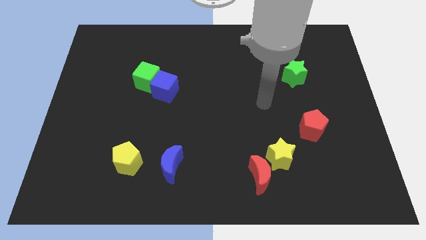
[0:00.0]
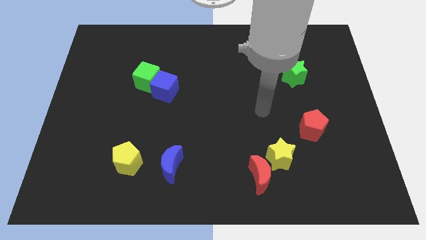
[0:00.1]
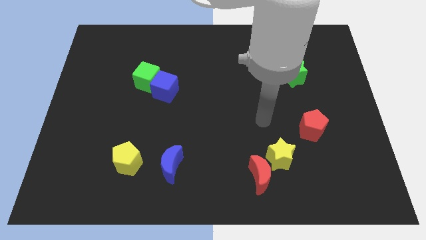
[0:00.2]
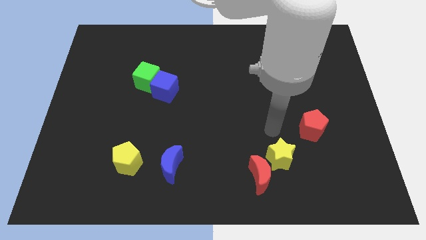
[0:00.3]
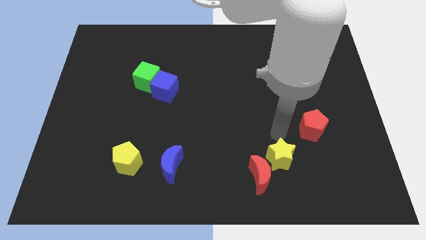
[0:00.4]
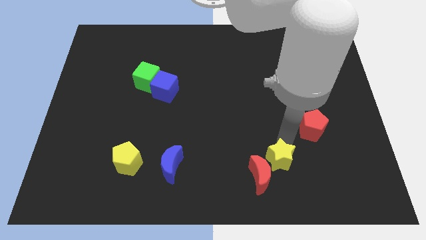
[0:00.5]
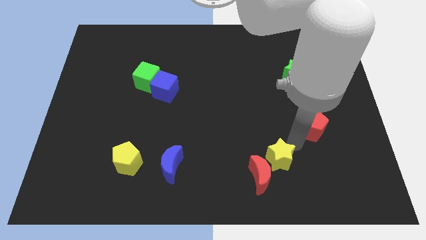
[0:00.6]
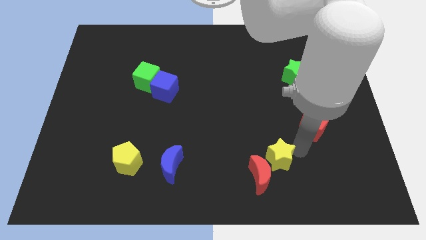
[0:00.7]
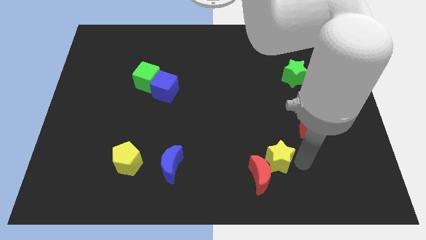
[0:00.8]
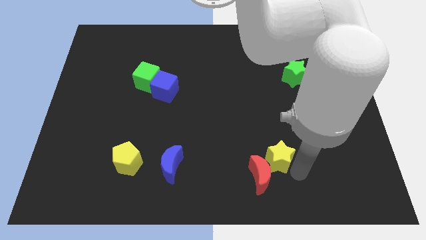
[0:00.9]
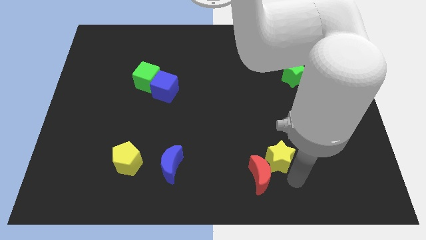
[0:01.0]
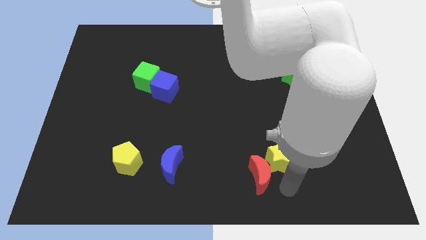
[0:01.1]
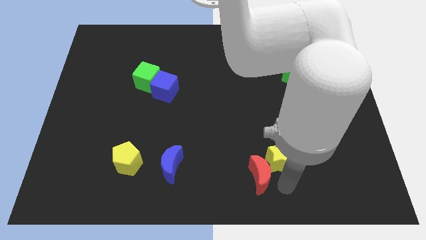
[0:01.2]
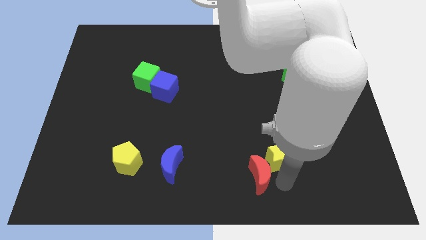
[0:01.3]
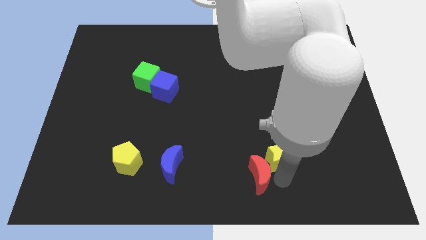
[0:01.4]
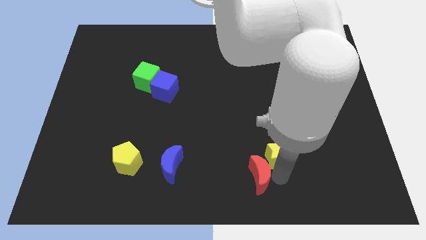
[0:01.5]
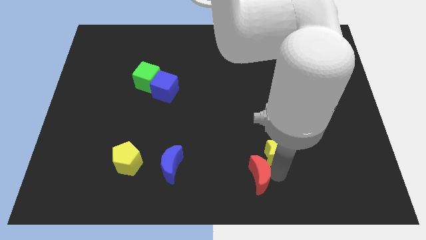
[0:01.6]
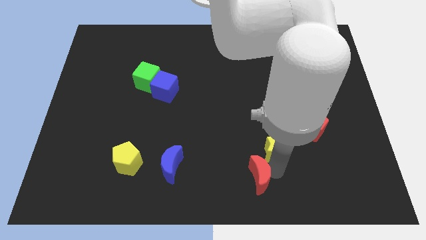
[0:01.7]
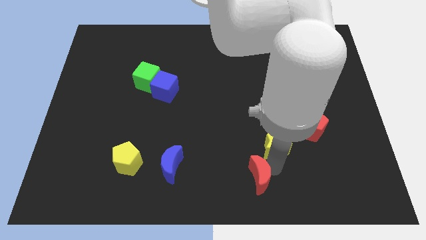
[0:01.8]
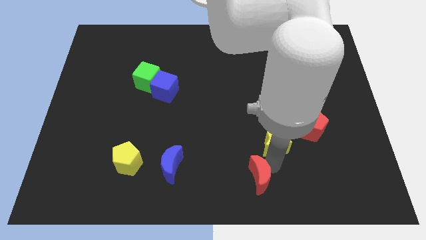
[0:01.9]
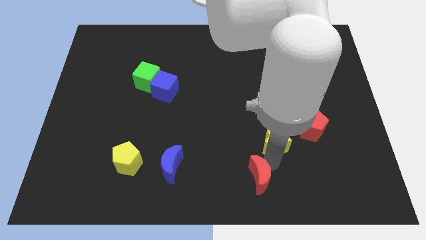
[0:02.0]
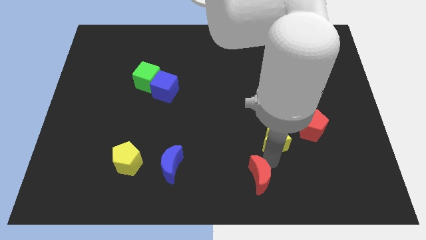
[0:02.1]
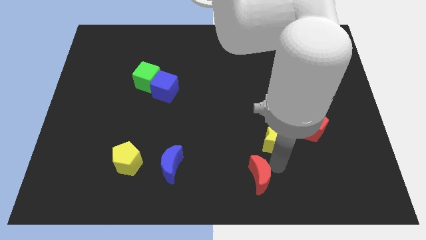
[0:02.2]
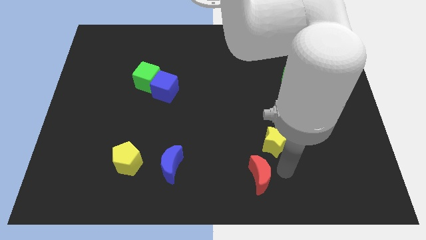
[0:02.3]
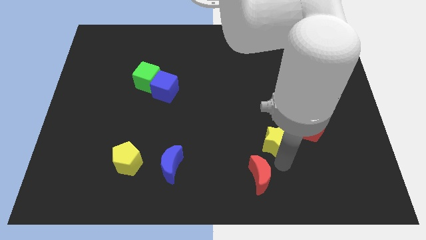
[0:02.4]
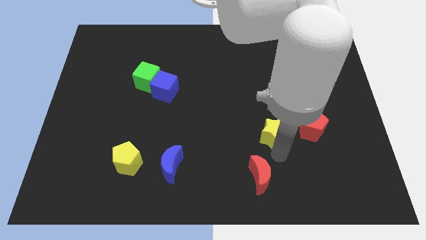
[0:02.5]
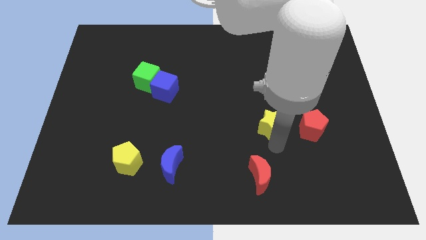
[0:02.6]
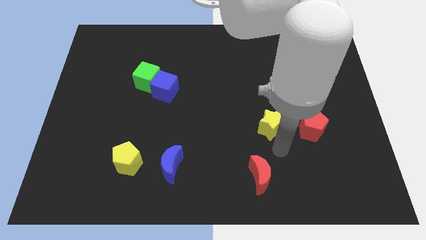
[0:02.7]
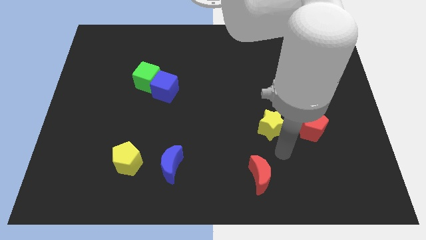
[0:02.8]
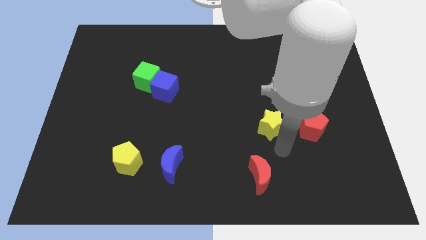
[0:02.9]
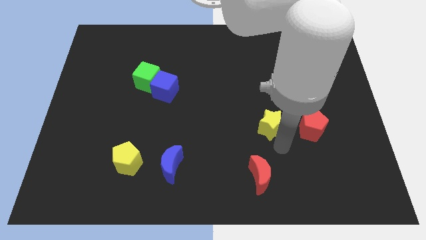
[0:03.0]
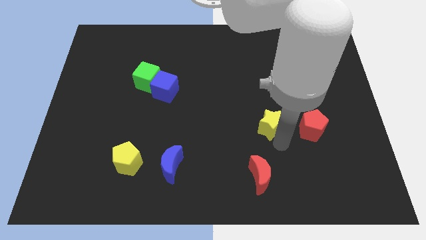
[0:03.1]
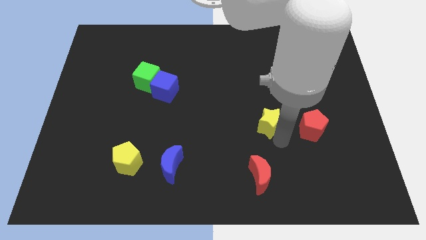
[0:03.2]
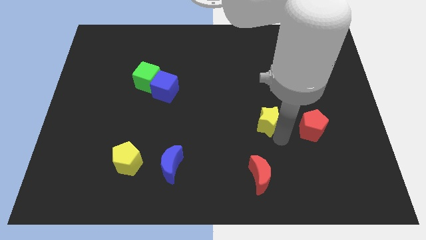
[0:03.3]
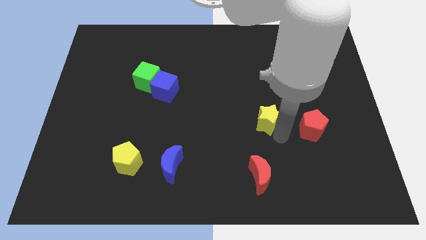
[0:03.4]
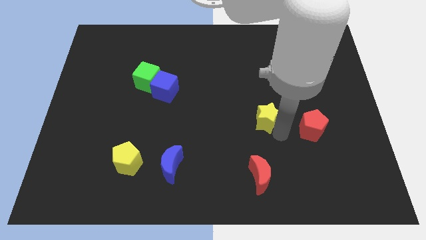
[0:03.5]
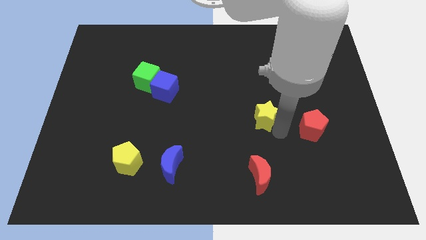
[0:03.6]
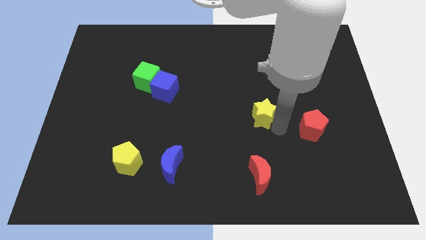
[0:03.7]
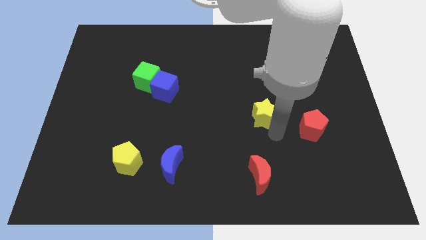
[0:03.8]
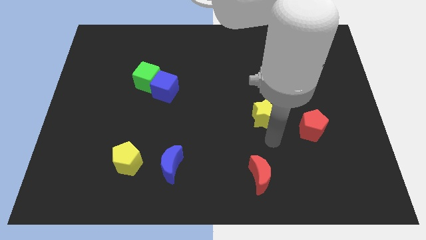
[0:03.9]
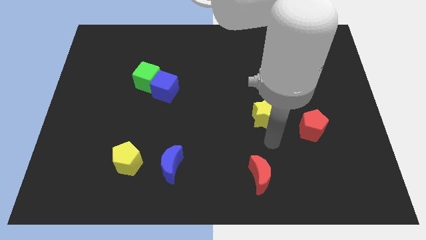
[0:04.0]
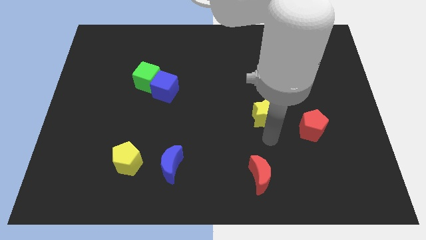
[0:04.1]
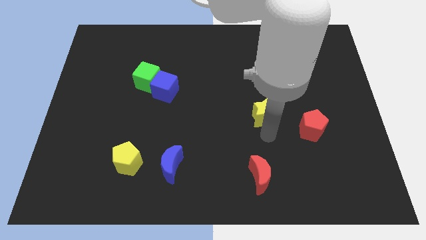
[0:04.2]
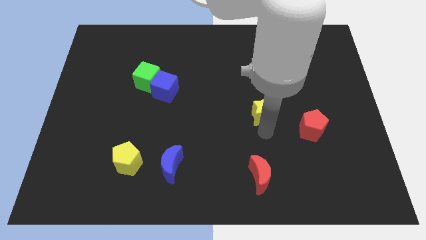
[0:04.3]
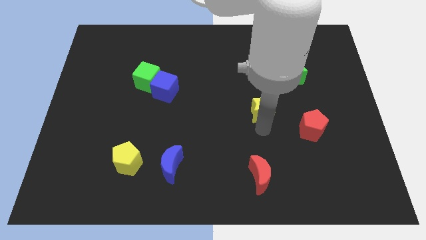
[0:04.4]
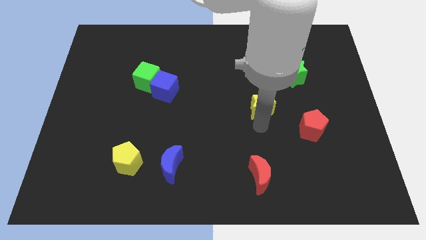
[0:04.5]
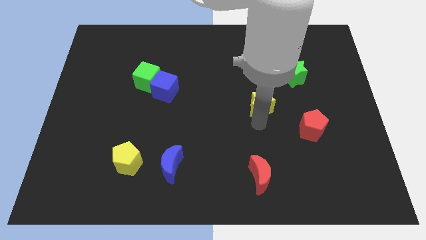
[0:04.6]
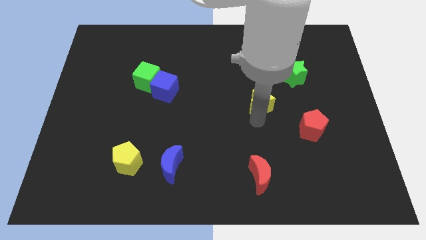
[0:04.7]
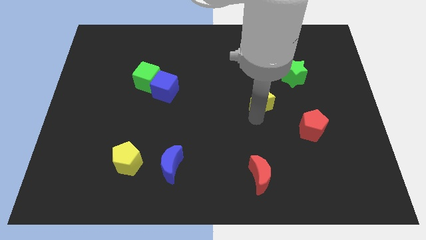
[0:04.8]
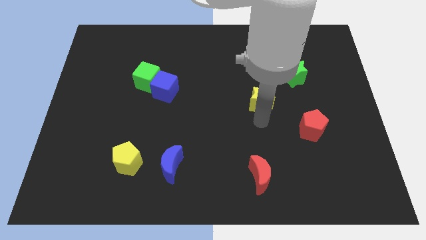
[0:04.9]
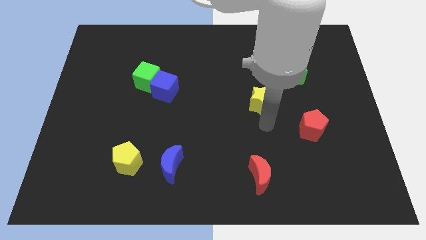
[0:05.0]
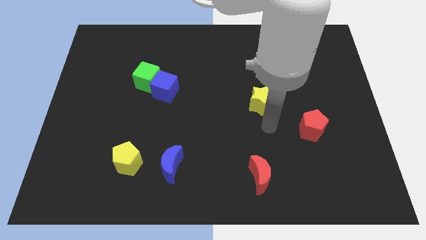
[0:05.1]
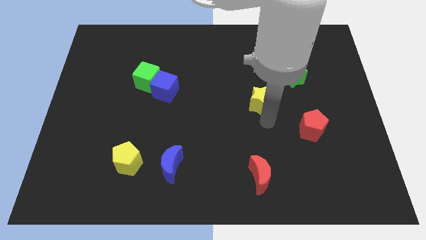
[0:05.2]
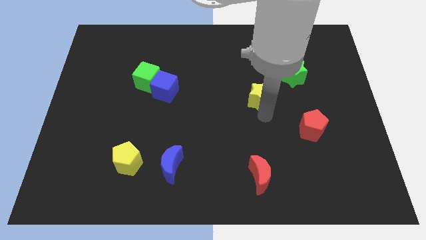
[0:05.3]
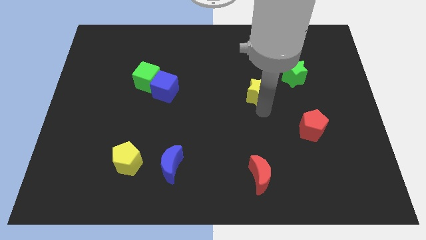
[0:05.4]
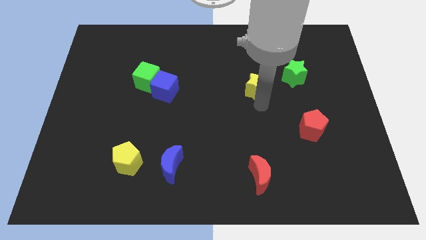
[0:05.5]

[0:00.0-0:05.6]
slide the yellow star to the left of the green star

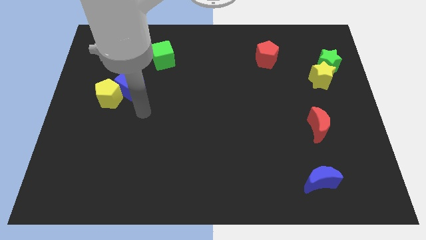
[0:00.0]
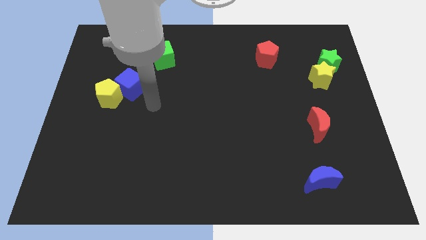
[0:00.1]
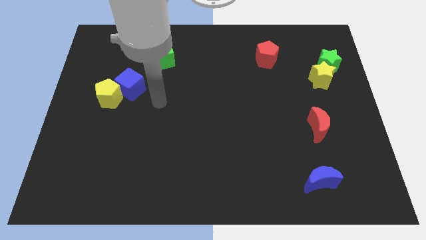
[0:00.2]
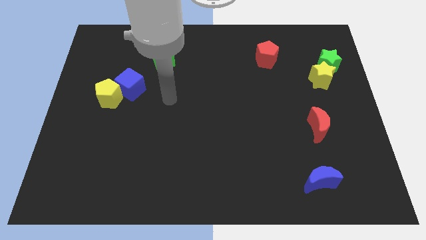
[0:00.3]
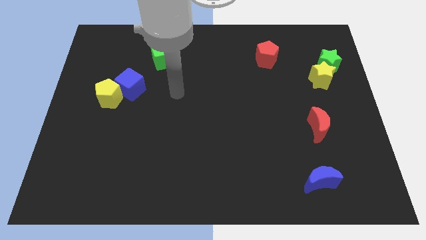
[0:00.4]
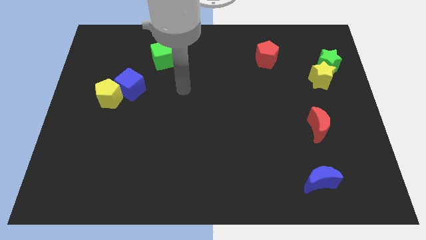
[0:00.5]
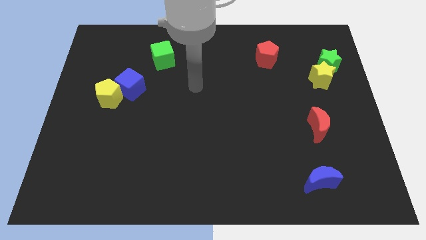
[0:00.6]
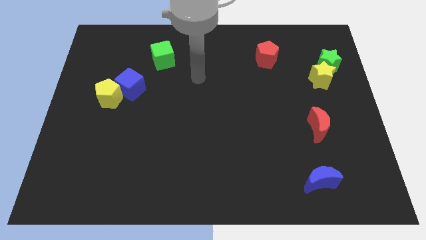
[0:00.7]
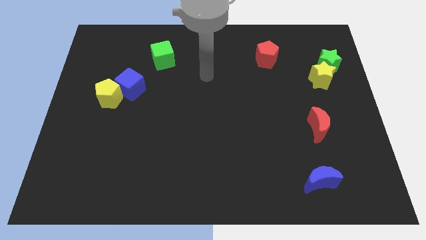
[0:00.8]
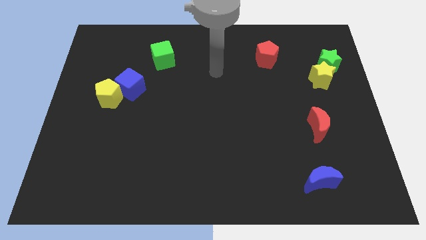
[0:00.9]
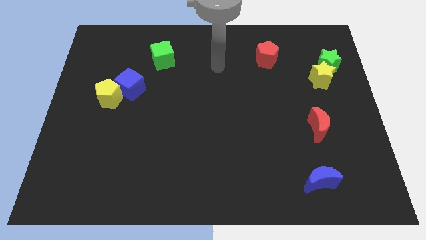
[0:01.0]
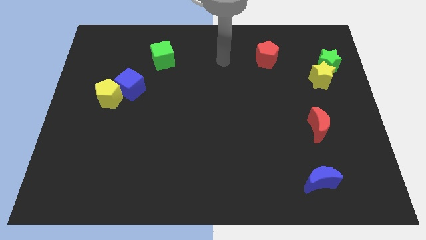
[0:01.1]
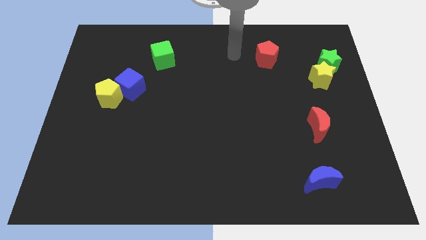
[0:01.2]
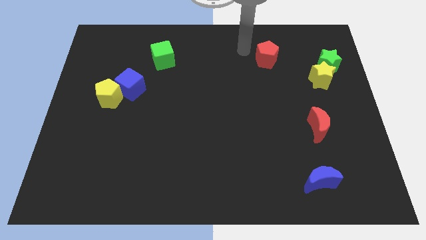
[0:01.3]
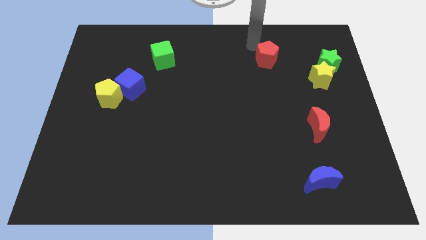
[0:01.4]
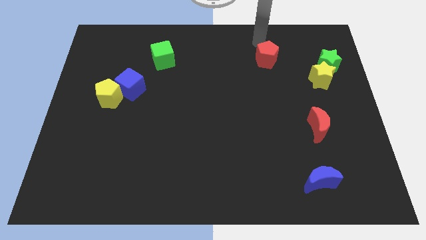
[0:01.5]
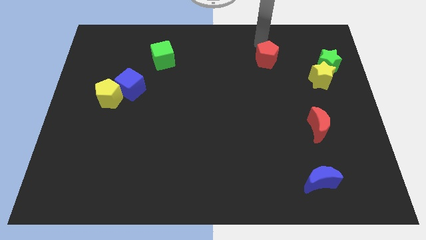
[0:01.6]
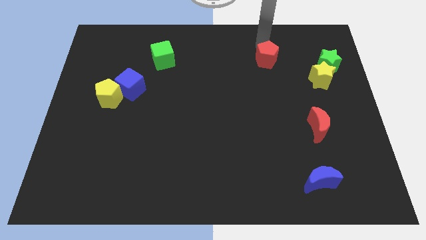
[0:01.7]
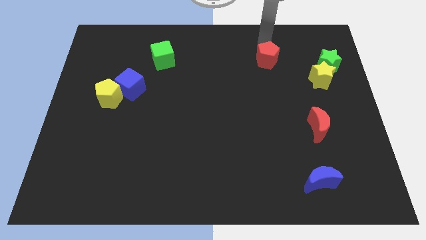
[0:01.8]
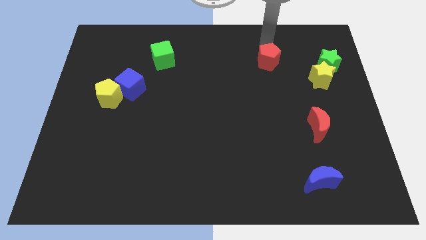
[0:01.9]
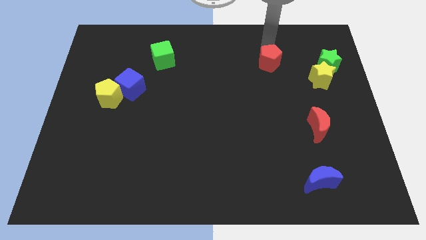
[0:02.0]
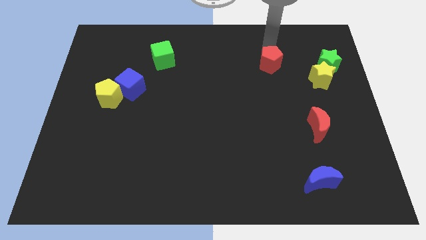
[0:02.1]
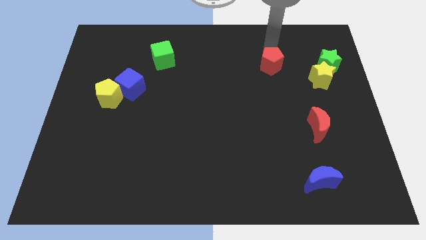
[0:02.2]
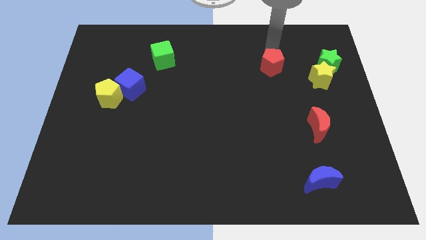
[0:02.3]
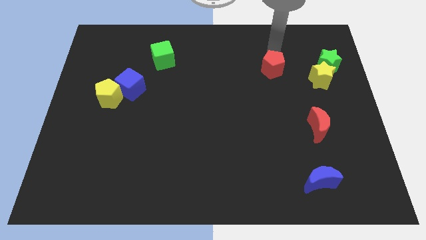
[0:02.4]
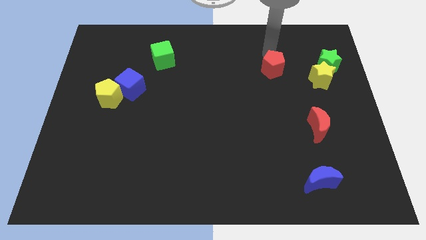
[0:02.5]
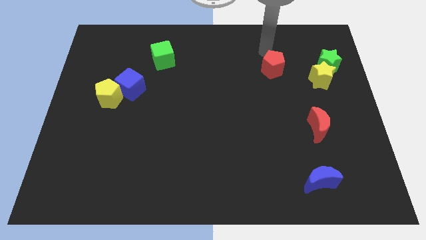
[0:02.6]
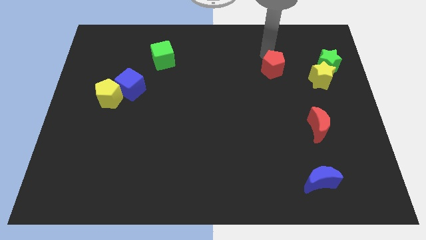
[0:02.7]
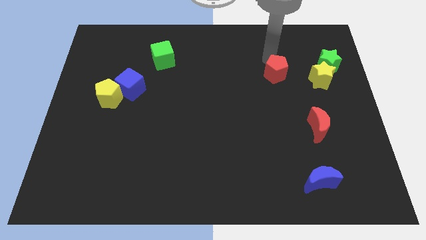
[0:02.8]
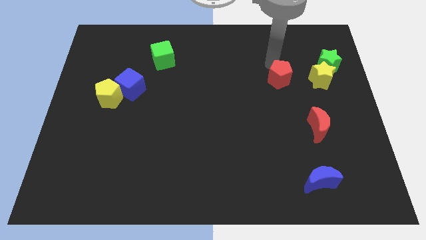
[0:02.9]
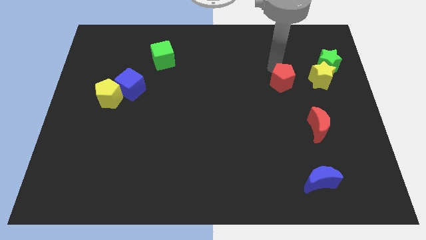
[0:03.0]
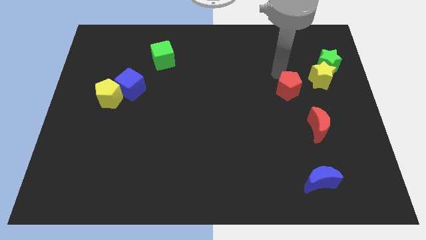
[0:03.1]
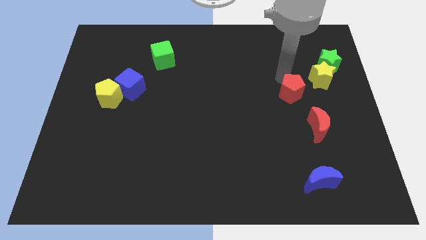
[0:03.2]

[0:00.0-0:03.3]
slide the red pentagon to the top left side of the red moon
